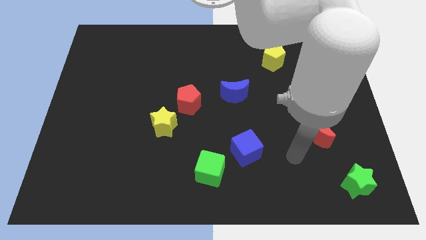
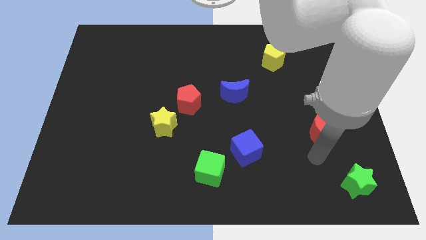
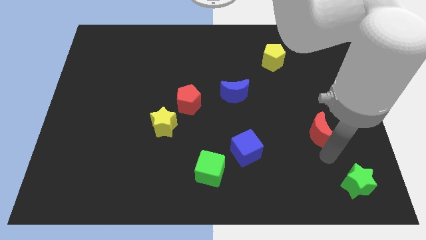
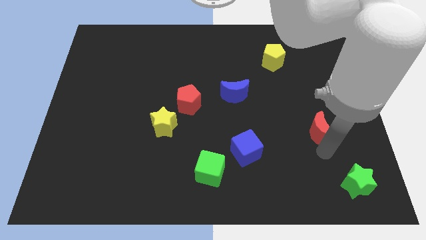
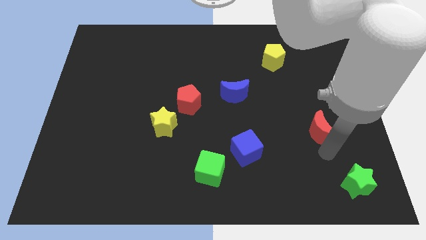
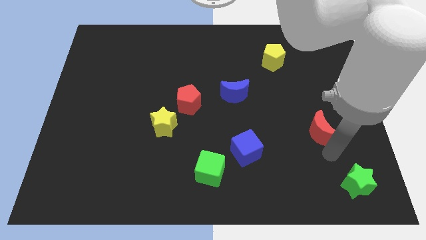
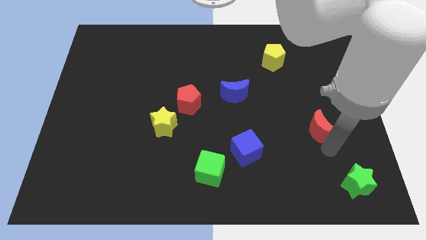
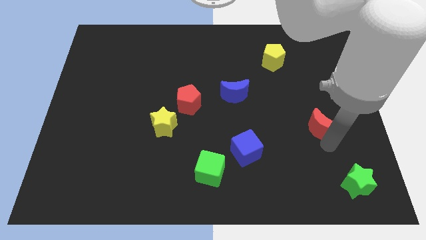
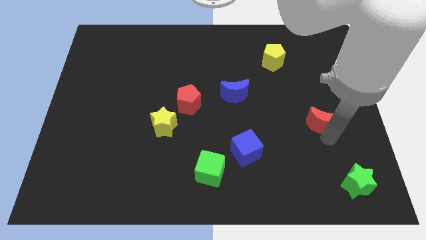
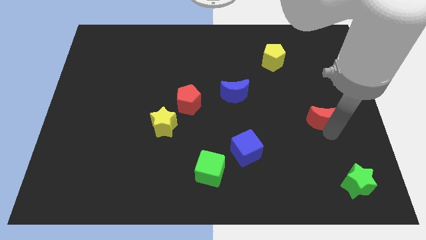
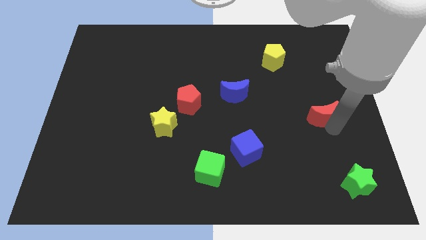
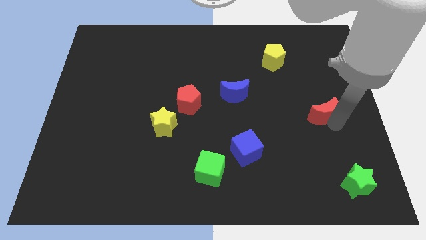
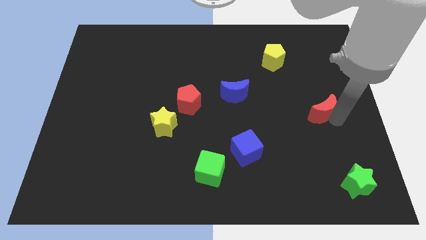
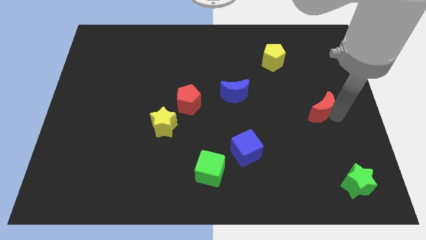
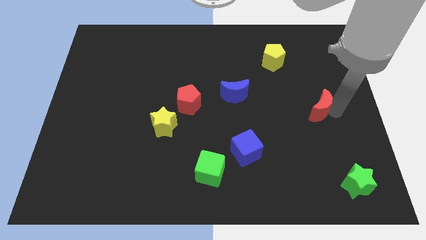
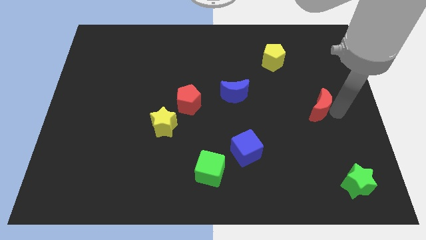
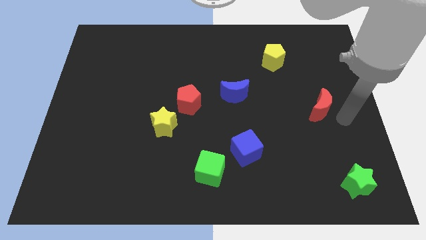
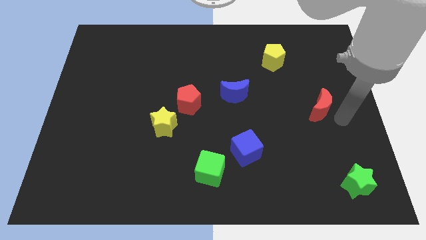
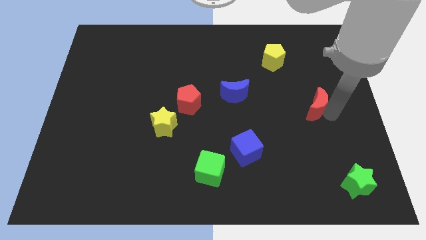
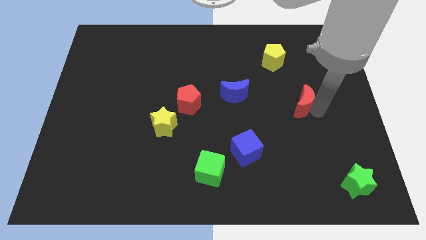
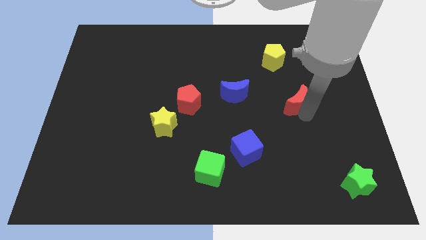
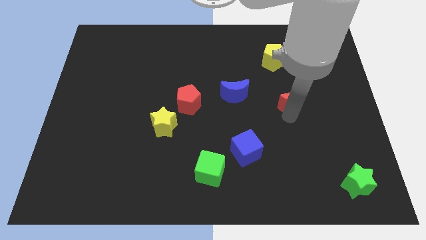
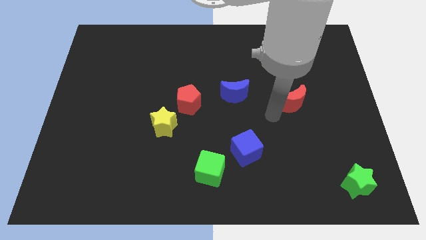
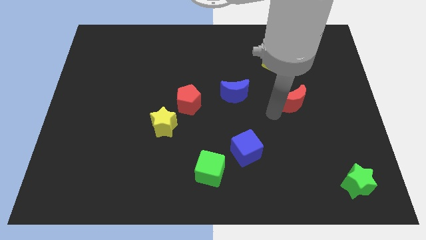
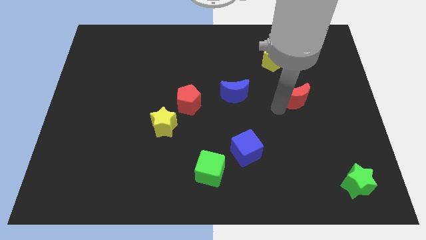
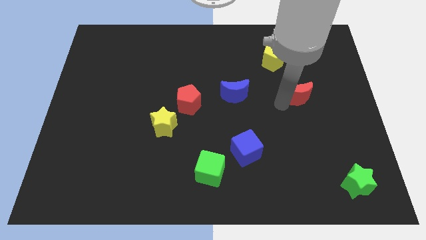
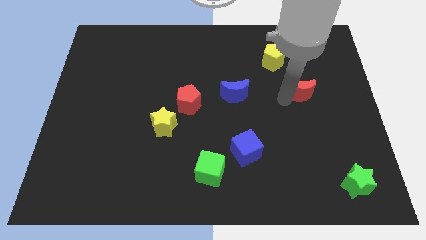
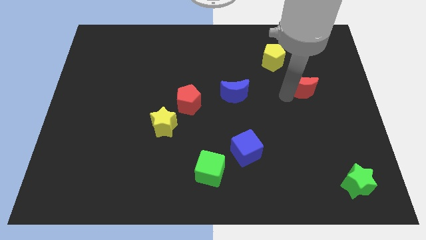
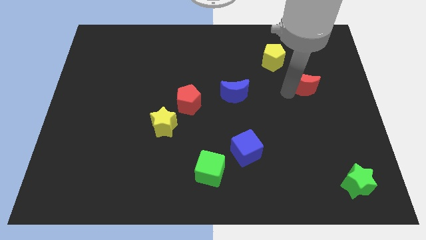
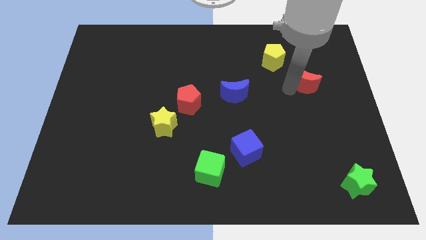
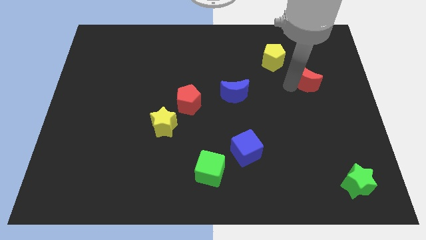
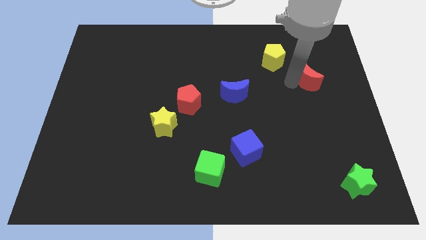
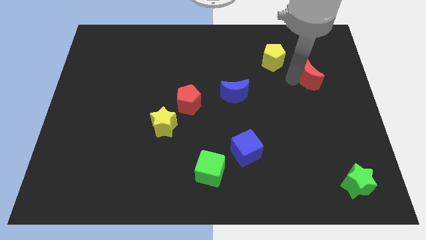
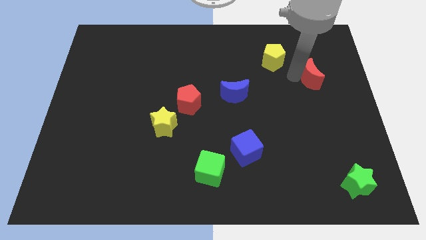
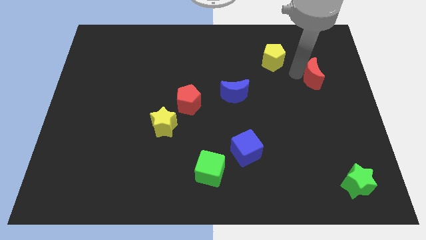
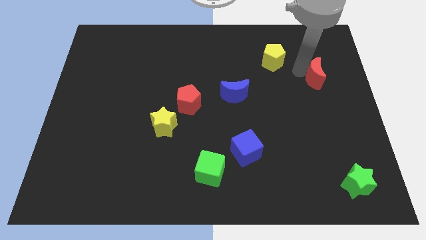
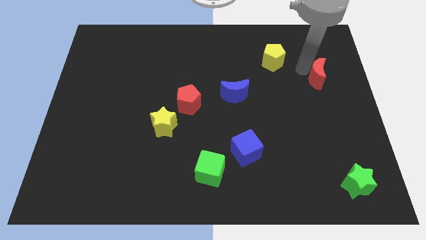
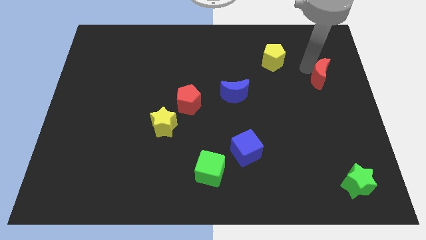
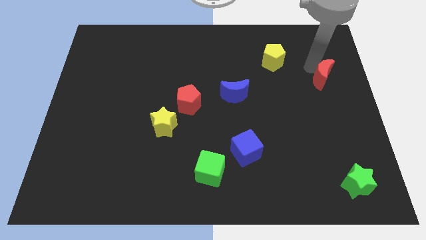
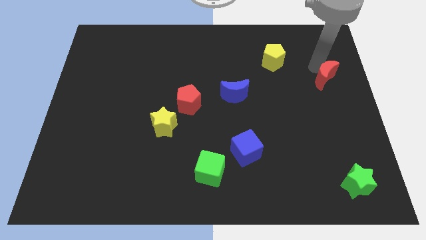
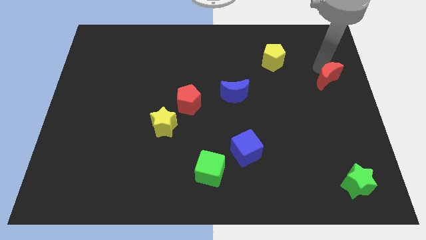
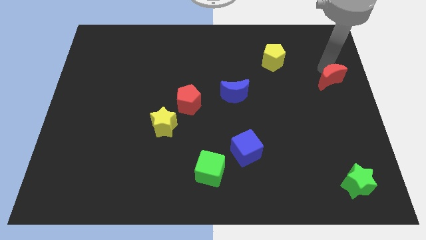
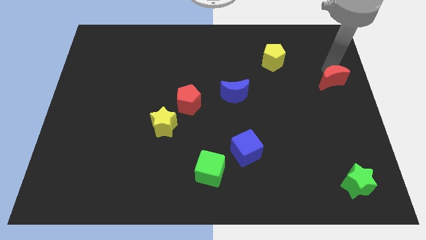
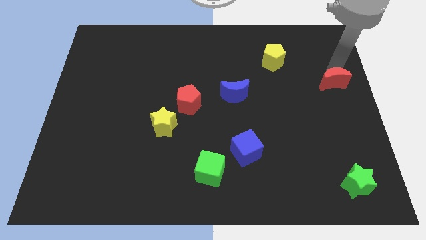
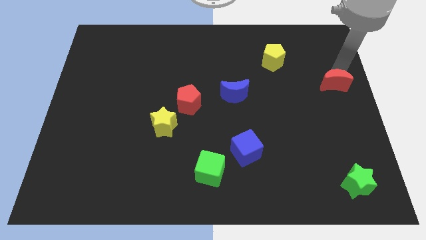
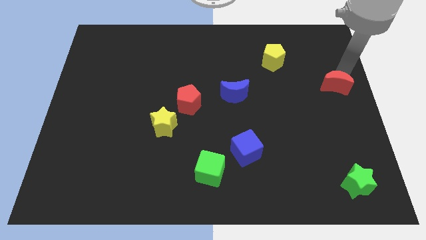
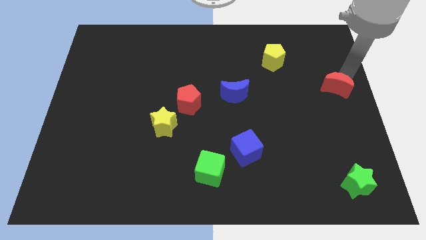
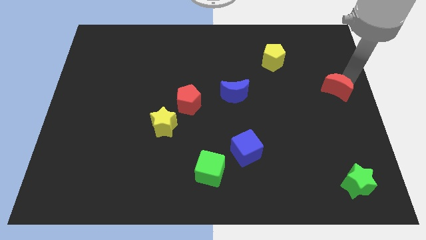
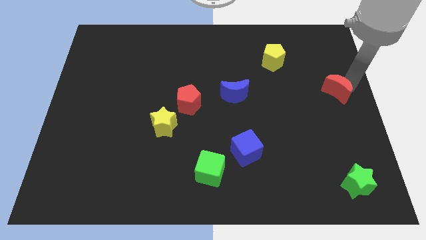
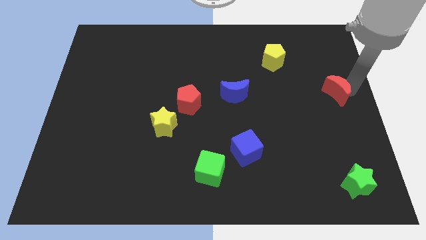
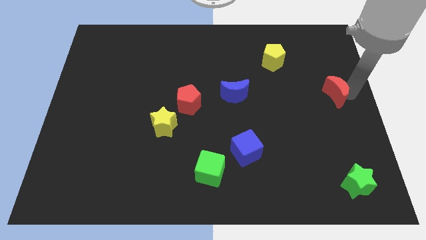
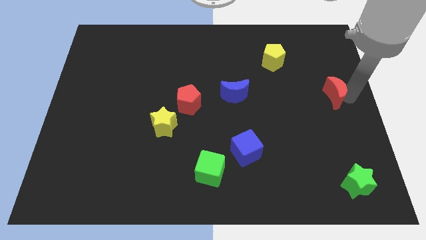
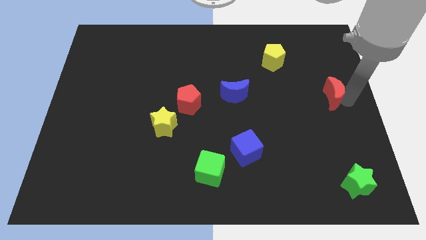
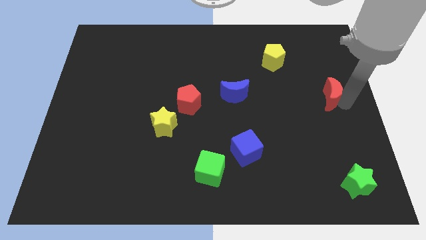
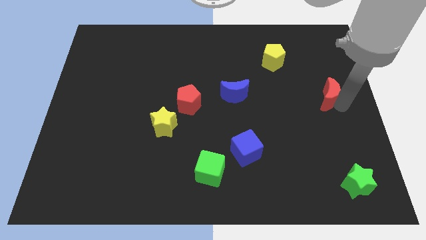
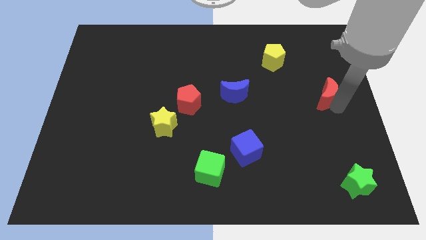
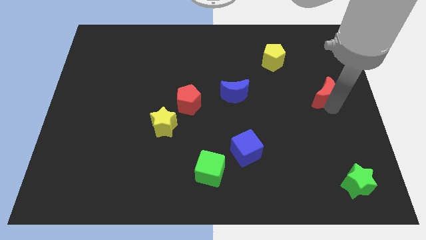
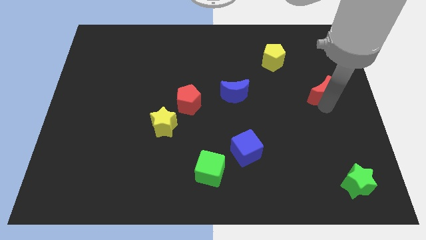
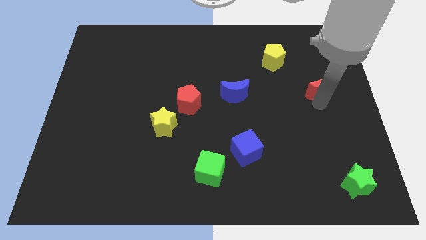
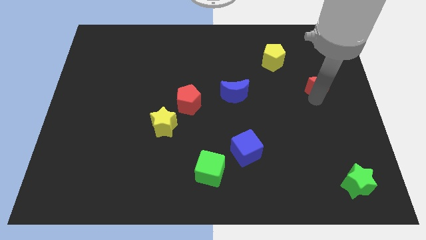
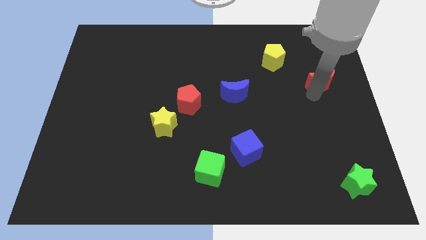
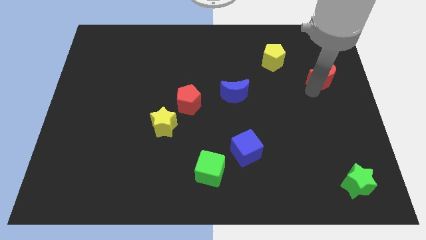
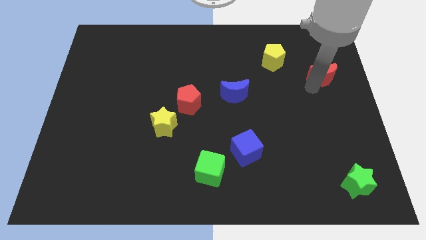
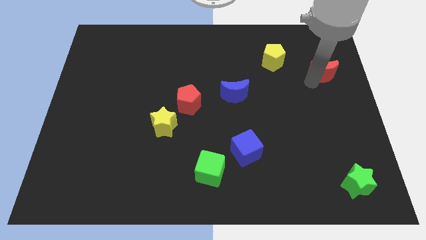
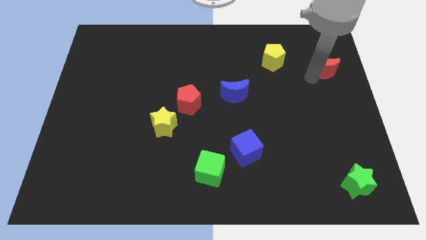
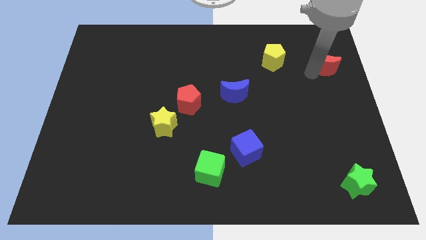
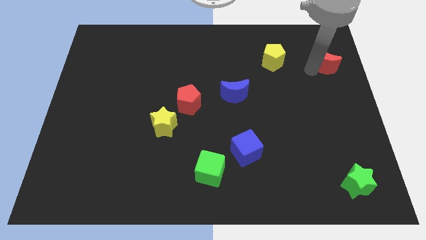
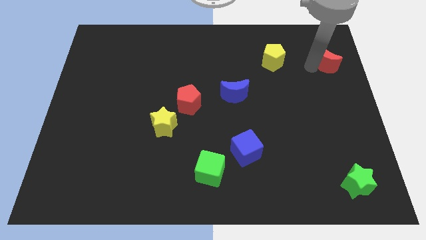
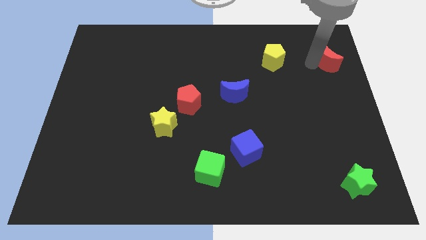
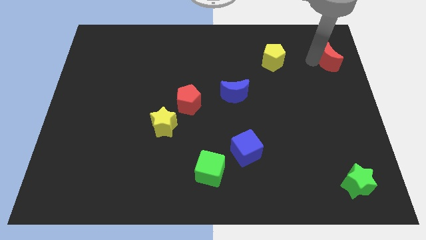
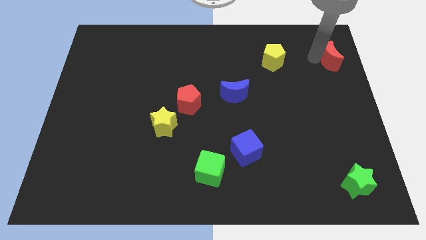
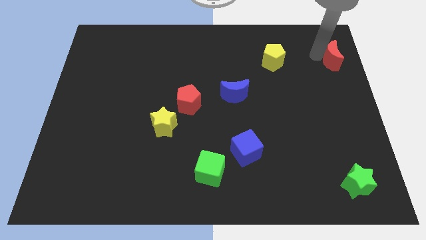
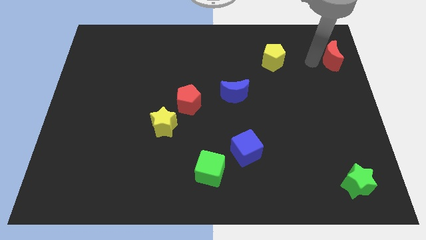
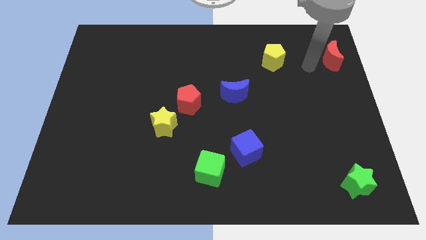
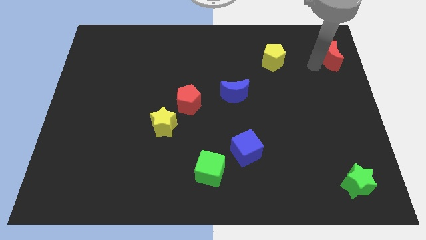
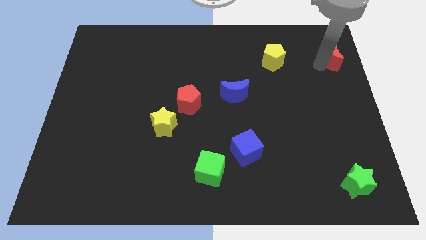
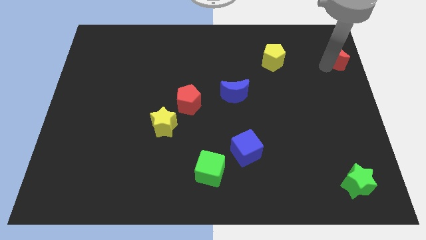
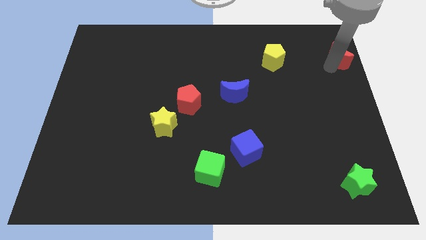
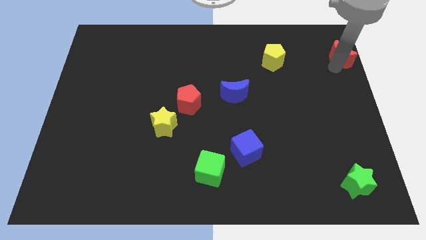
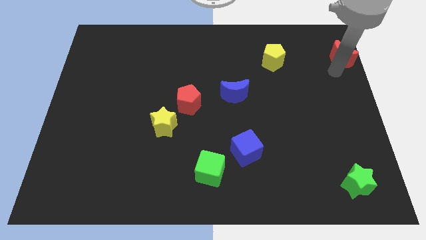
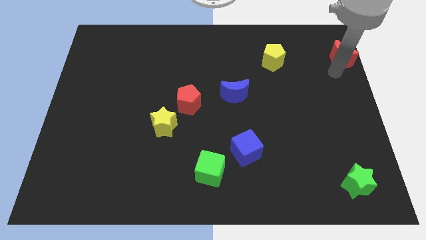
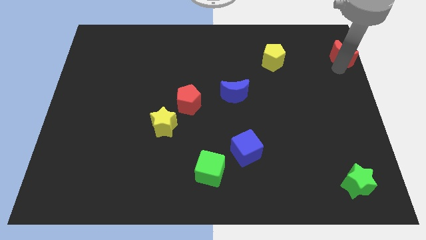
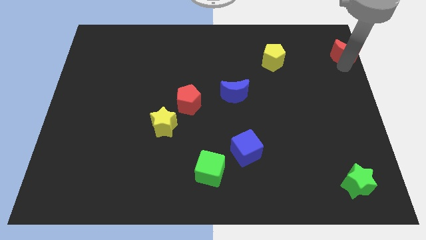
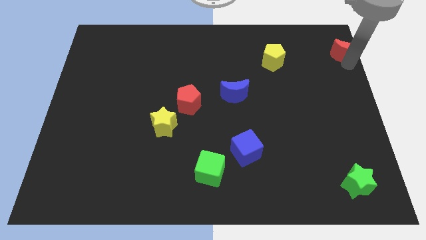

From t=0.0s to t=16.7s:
put the red moon to the top right
